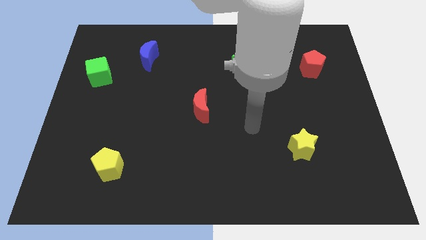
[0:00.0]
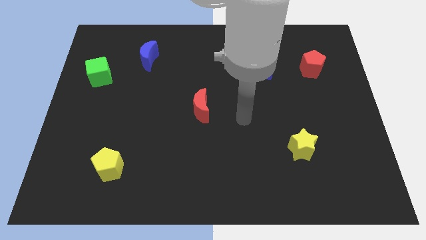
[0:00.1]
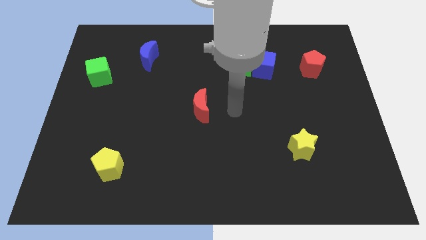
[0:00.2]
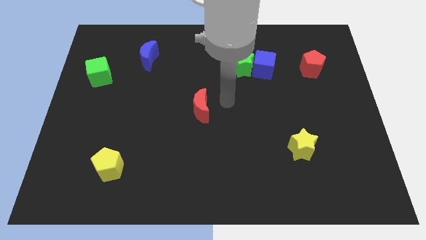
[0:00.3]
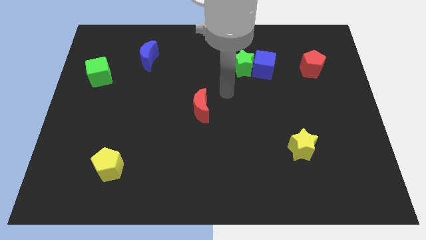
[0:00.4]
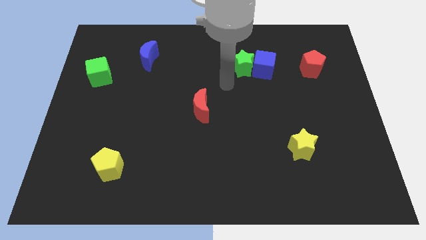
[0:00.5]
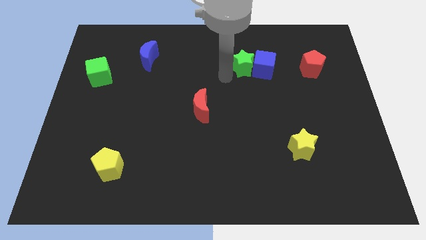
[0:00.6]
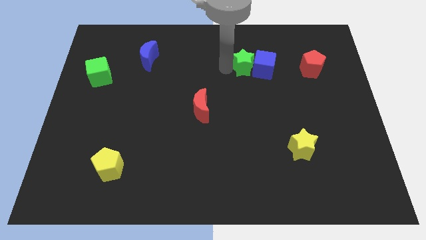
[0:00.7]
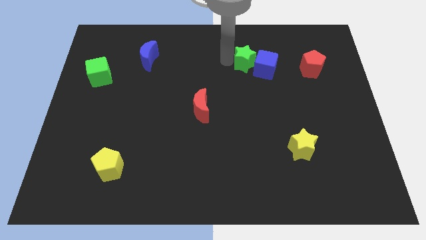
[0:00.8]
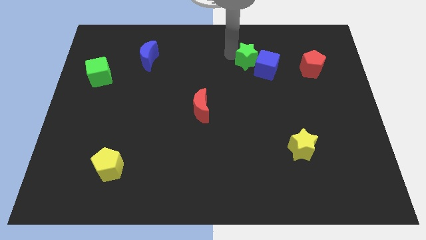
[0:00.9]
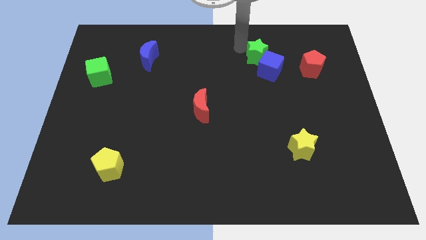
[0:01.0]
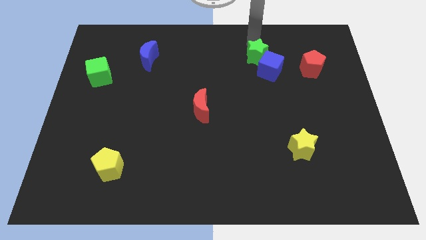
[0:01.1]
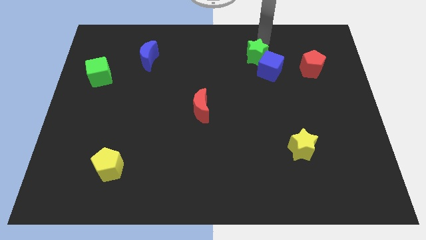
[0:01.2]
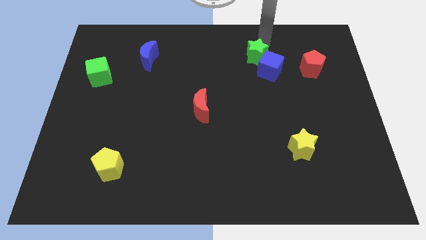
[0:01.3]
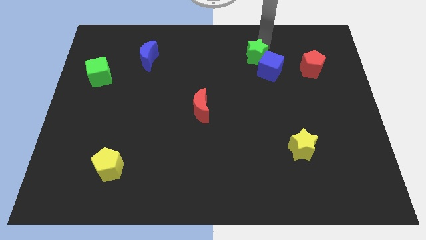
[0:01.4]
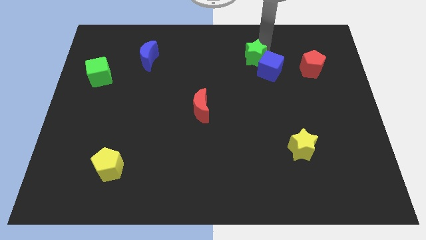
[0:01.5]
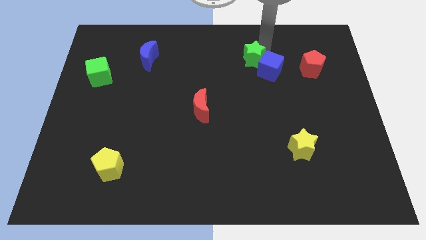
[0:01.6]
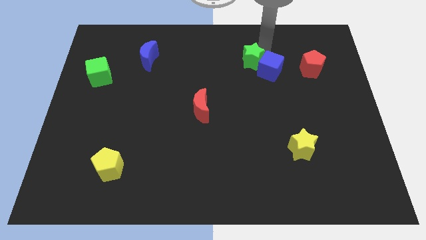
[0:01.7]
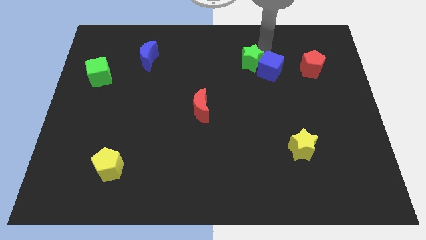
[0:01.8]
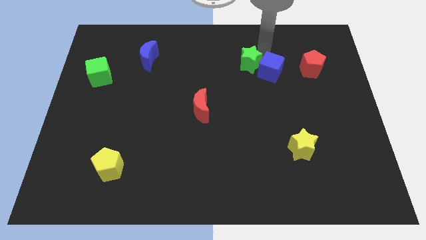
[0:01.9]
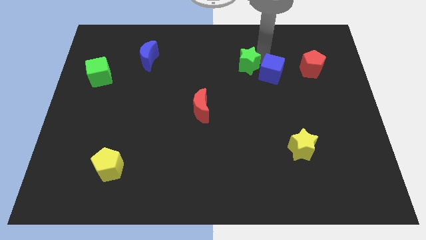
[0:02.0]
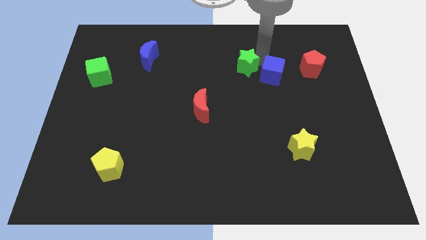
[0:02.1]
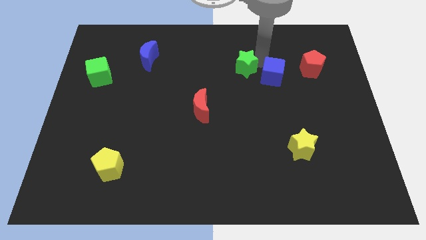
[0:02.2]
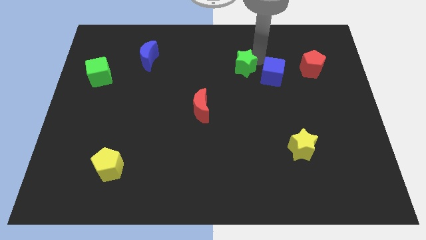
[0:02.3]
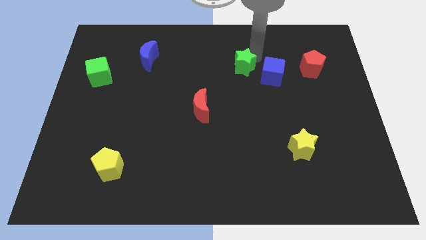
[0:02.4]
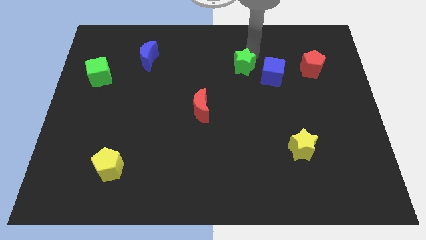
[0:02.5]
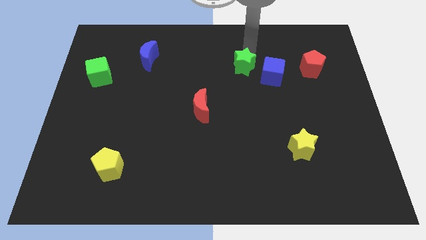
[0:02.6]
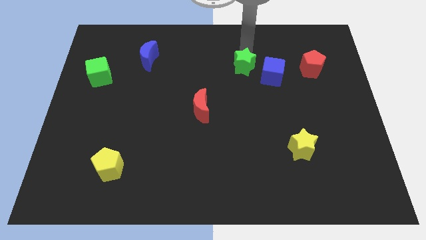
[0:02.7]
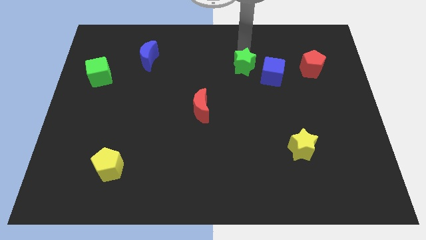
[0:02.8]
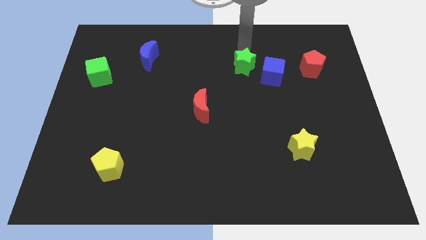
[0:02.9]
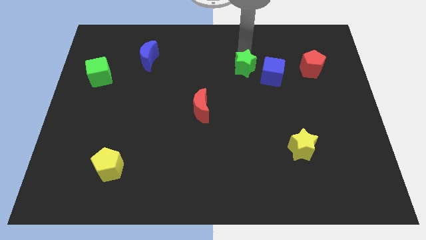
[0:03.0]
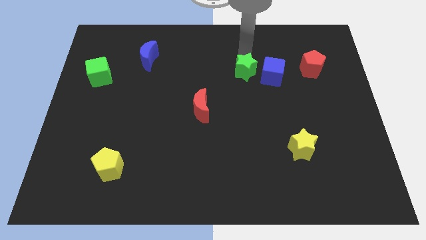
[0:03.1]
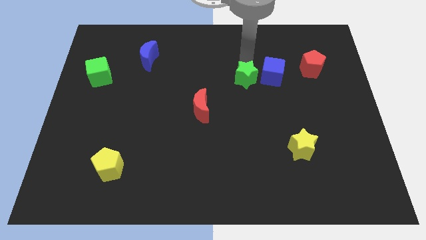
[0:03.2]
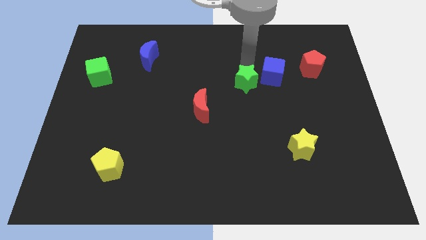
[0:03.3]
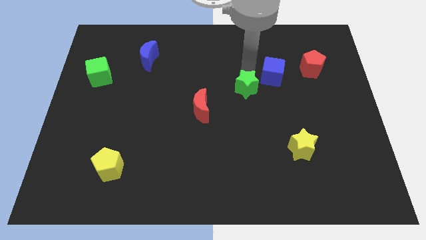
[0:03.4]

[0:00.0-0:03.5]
slightly push the green star down

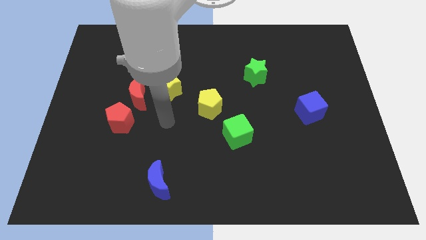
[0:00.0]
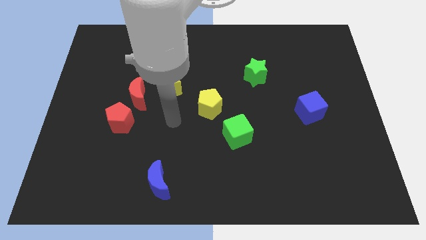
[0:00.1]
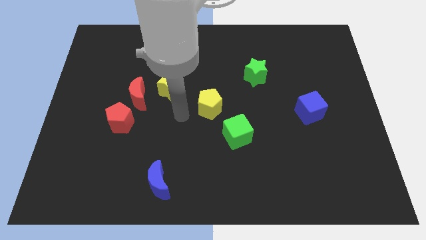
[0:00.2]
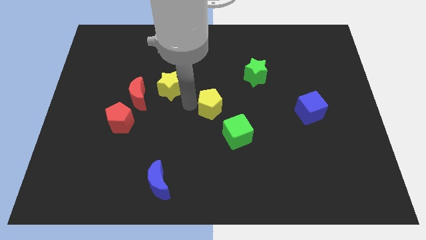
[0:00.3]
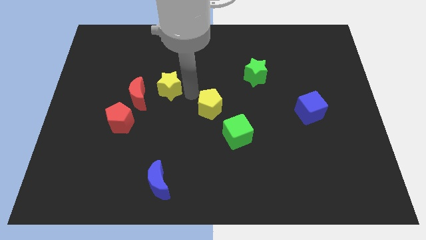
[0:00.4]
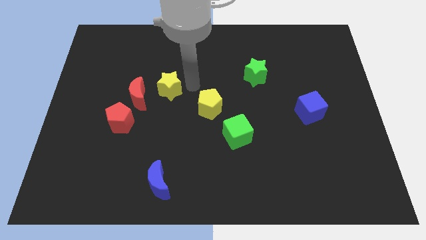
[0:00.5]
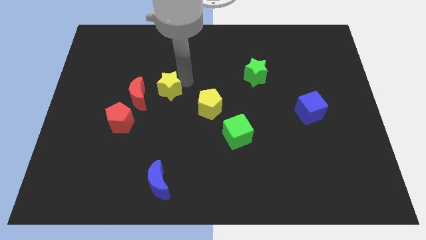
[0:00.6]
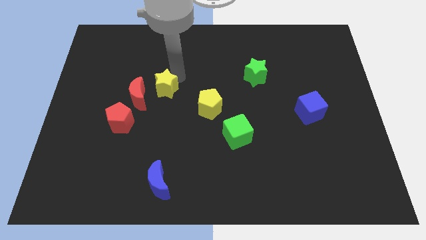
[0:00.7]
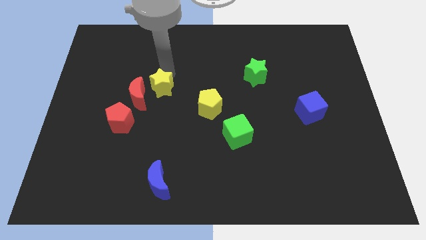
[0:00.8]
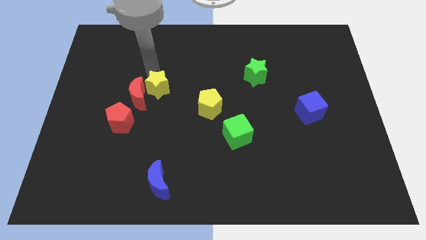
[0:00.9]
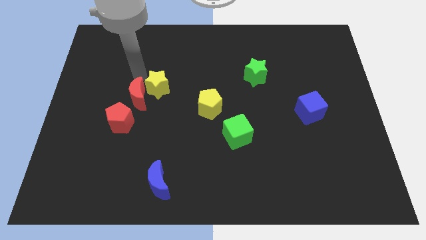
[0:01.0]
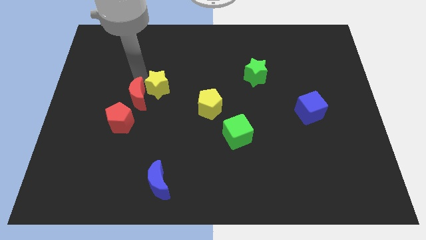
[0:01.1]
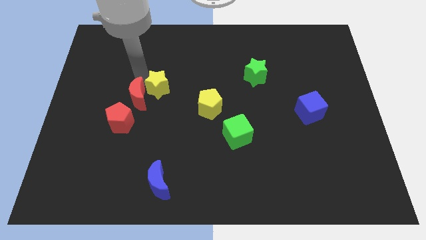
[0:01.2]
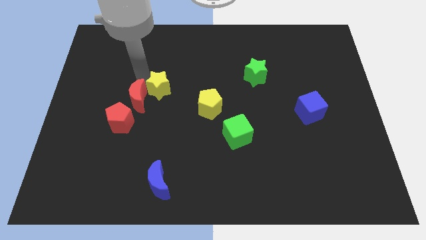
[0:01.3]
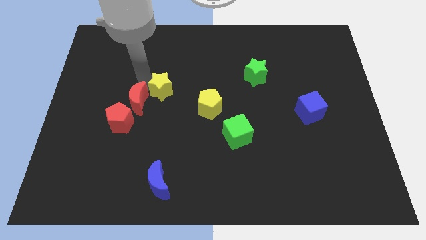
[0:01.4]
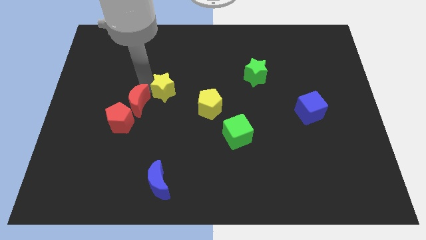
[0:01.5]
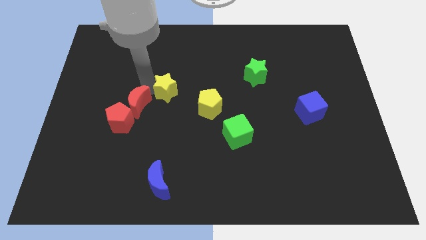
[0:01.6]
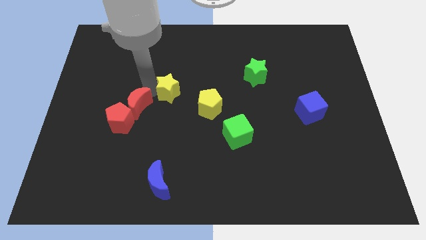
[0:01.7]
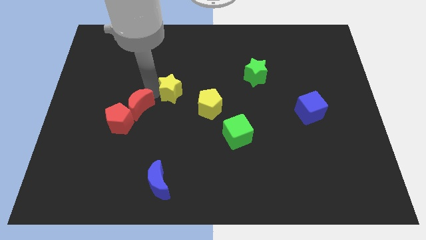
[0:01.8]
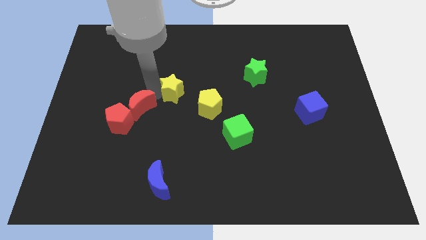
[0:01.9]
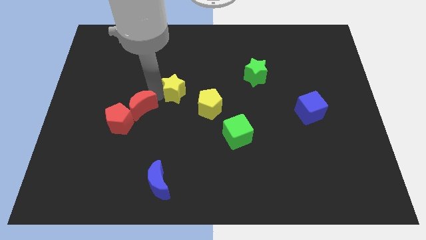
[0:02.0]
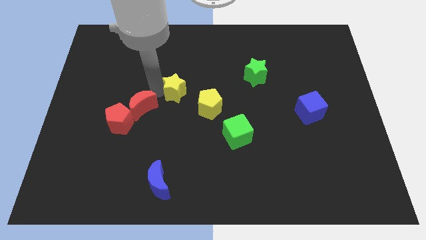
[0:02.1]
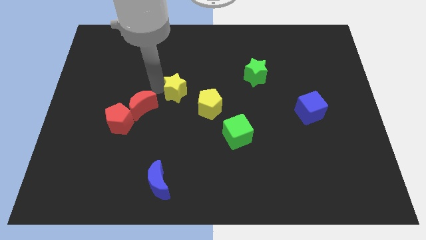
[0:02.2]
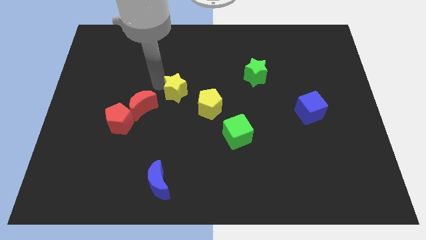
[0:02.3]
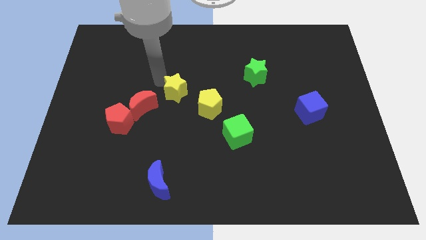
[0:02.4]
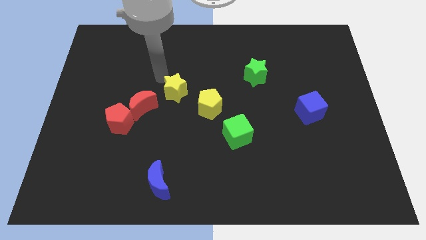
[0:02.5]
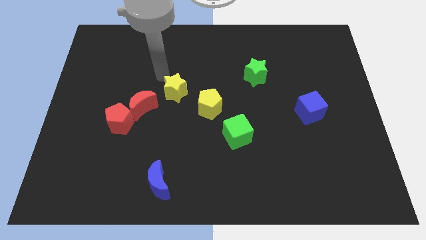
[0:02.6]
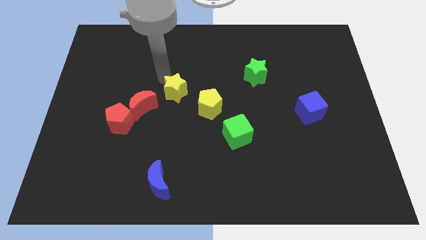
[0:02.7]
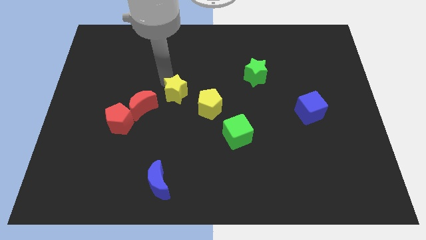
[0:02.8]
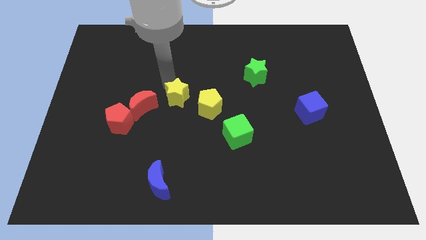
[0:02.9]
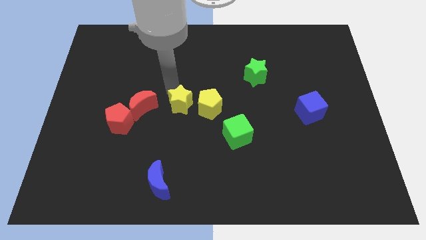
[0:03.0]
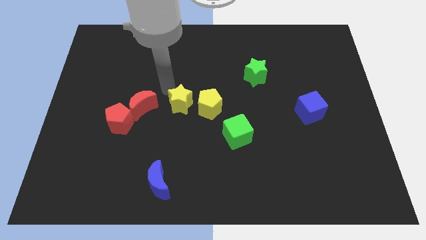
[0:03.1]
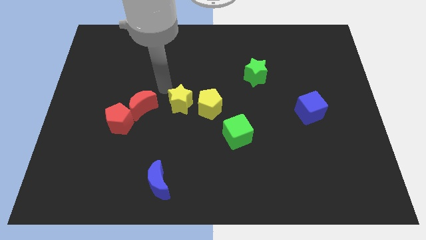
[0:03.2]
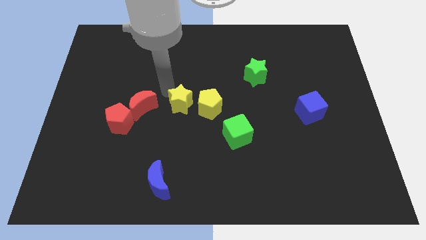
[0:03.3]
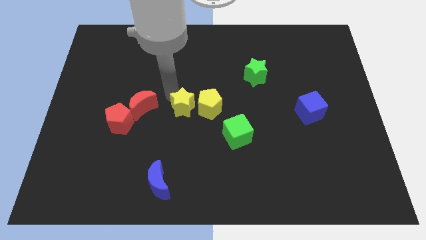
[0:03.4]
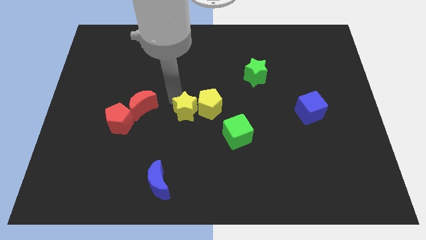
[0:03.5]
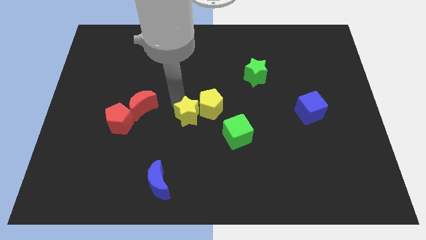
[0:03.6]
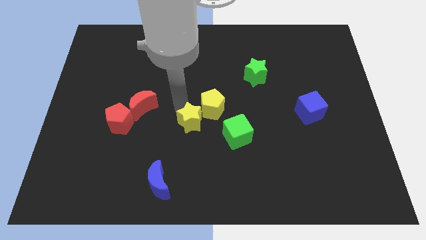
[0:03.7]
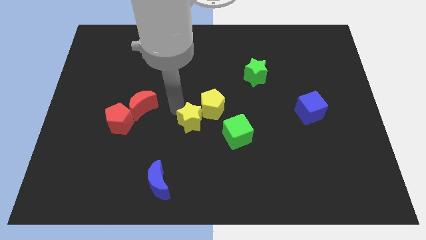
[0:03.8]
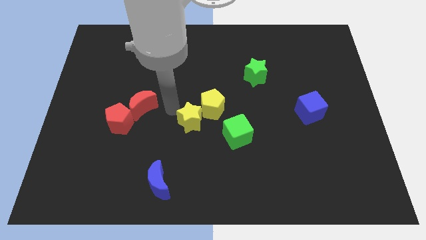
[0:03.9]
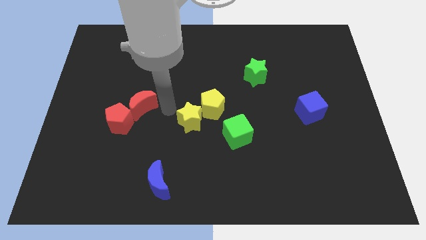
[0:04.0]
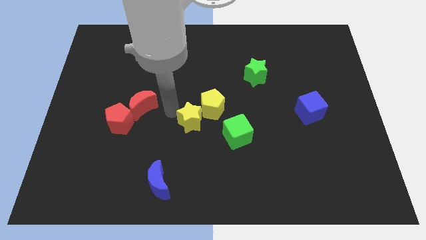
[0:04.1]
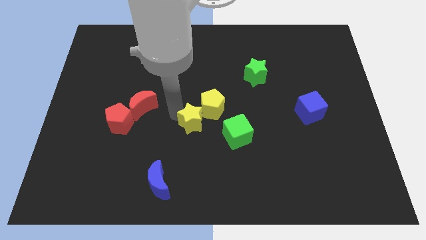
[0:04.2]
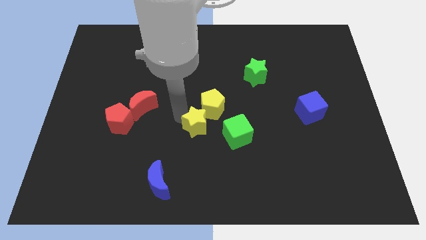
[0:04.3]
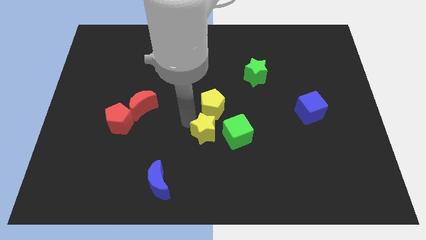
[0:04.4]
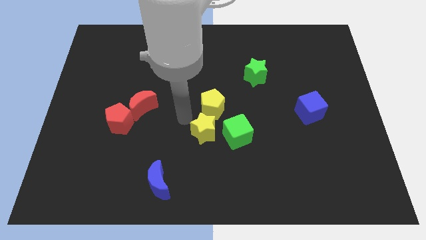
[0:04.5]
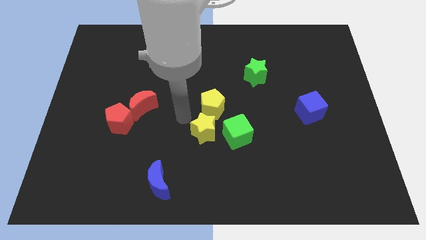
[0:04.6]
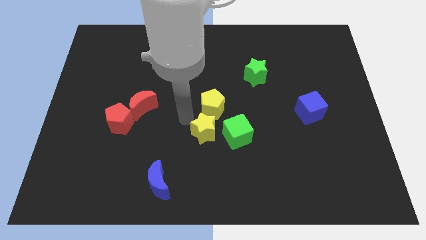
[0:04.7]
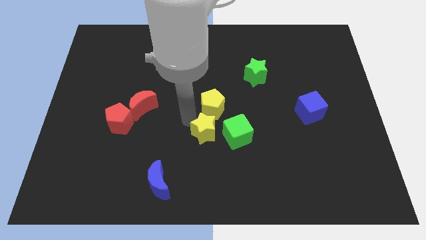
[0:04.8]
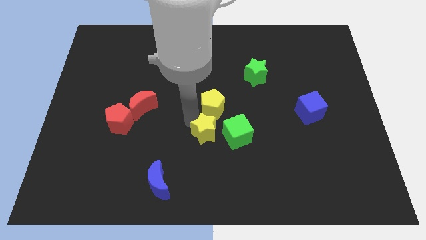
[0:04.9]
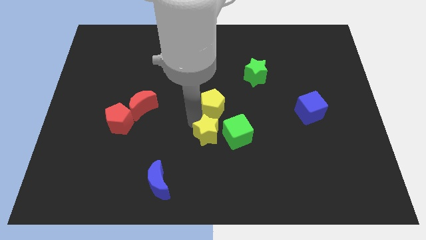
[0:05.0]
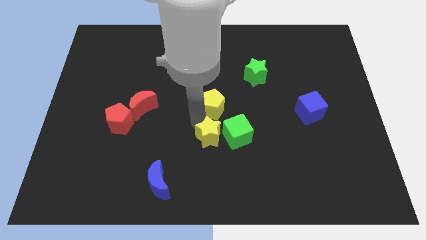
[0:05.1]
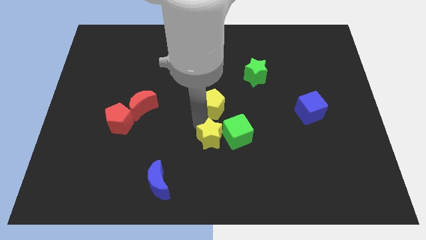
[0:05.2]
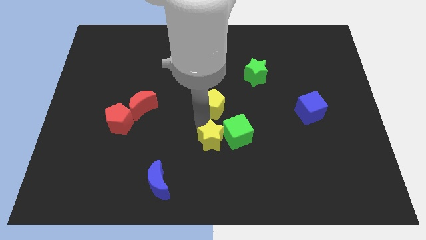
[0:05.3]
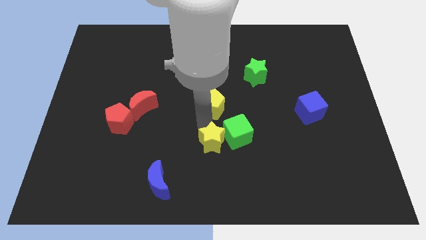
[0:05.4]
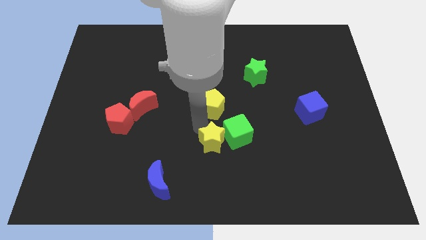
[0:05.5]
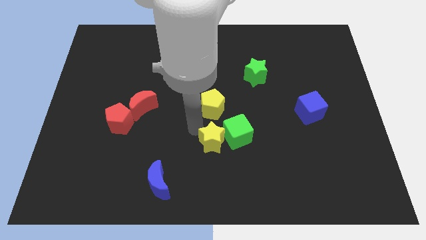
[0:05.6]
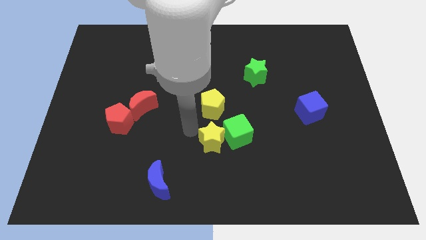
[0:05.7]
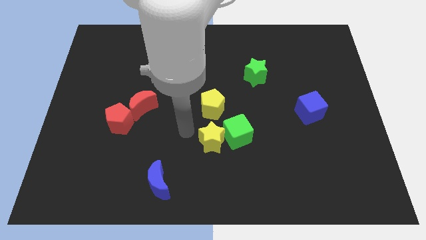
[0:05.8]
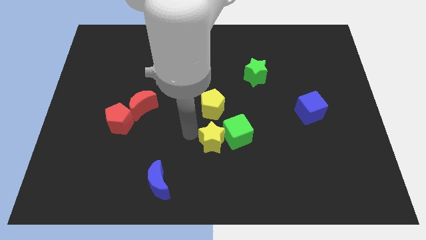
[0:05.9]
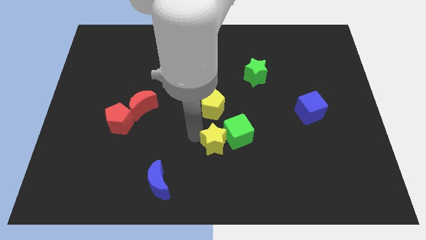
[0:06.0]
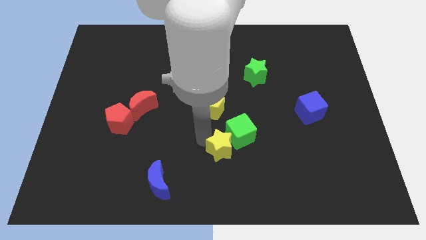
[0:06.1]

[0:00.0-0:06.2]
move the yellow star diagonally downwards and right
